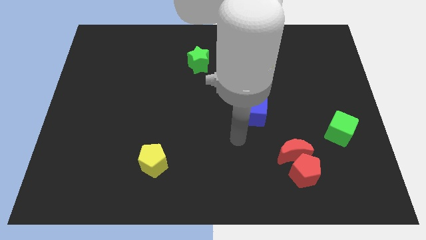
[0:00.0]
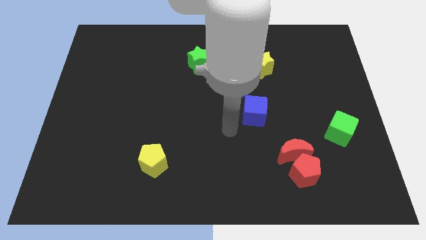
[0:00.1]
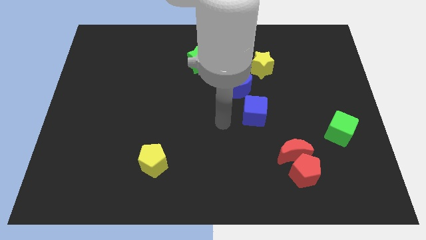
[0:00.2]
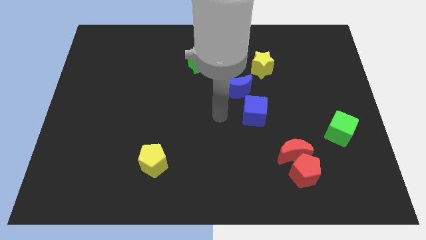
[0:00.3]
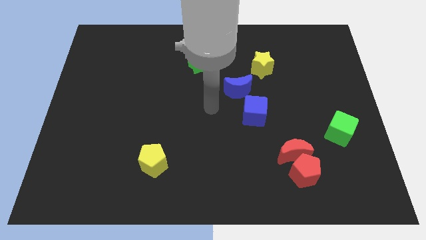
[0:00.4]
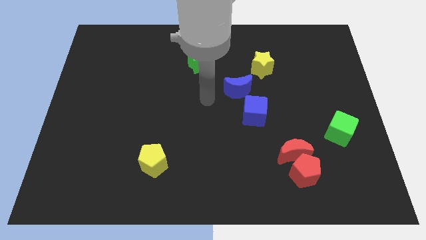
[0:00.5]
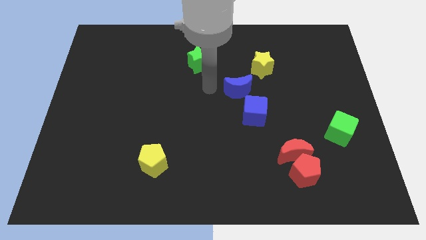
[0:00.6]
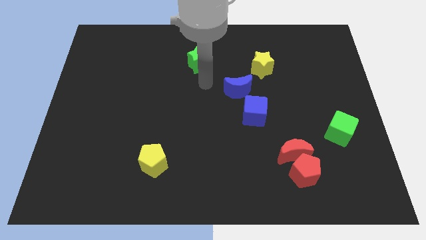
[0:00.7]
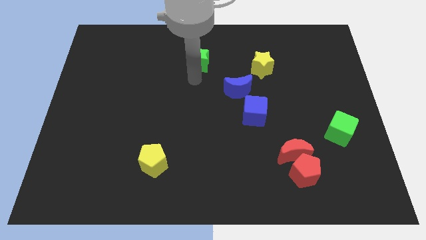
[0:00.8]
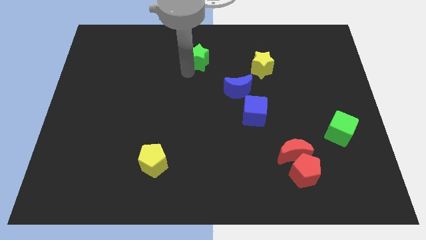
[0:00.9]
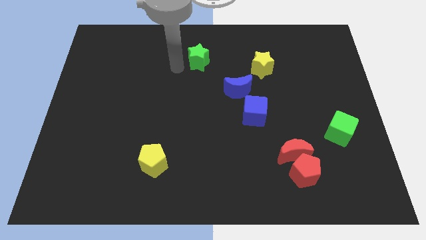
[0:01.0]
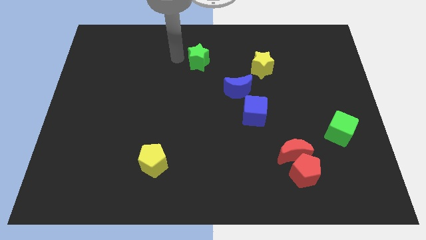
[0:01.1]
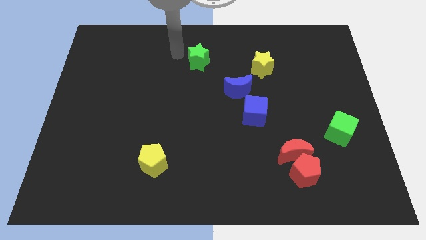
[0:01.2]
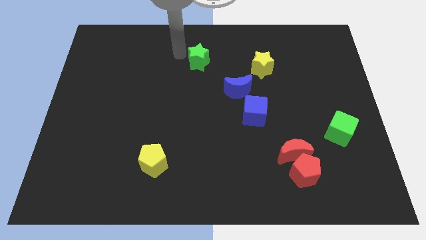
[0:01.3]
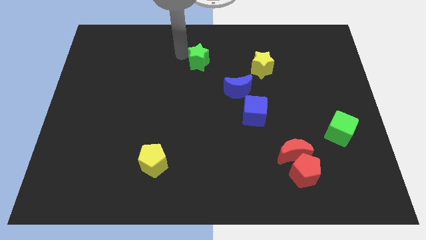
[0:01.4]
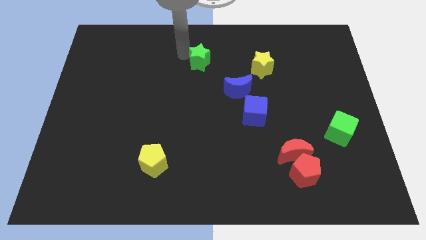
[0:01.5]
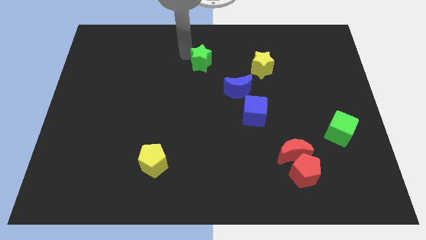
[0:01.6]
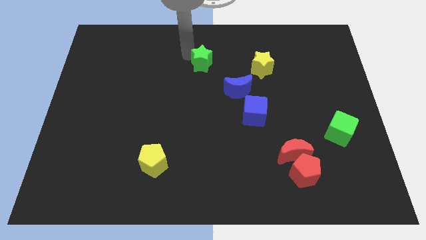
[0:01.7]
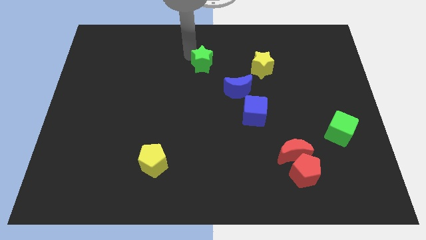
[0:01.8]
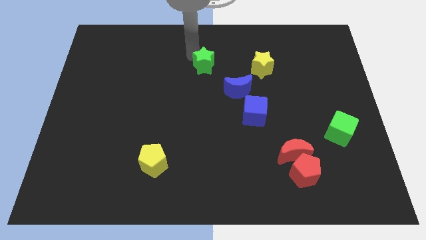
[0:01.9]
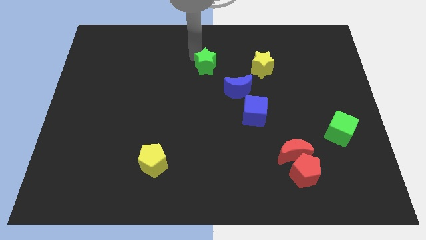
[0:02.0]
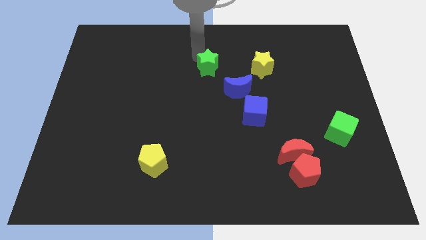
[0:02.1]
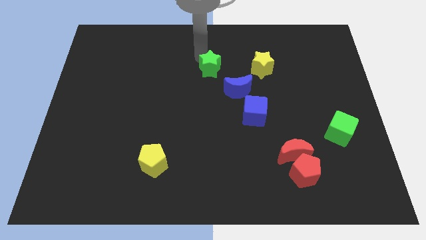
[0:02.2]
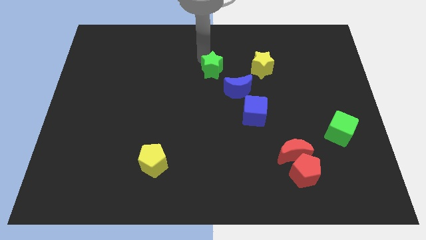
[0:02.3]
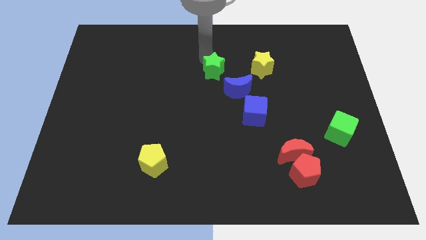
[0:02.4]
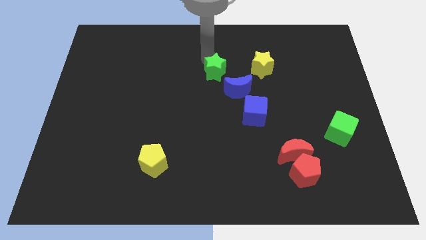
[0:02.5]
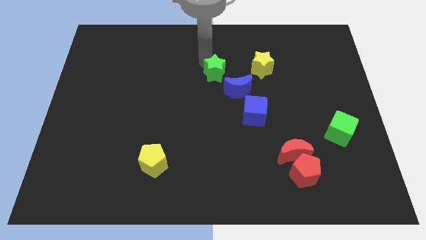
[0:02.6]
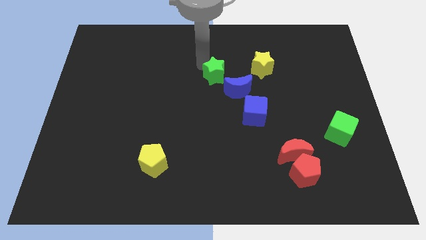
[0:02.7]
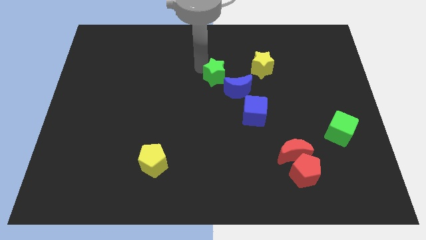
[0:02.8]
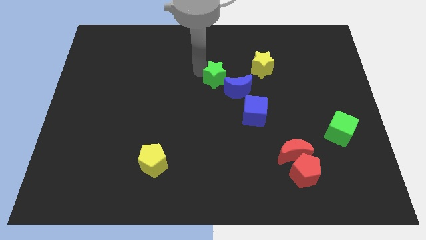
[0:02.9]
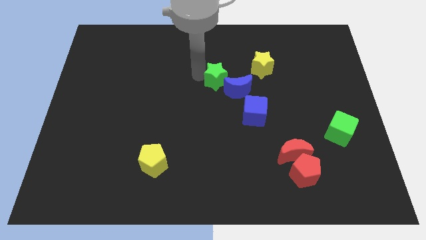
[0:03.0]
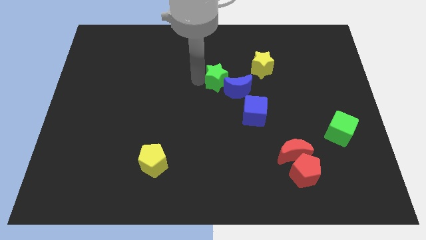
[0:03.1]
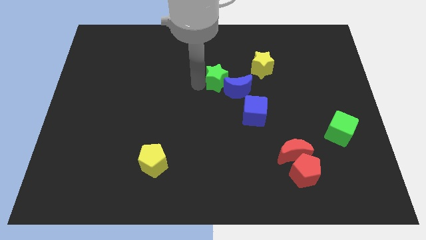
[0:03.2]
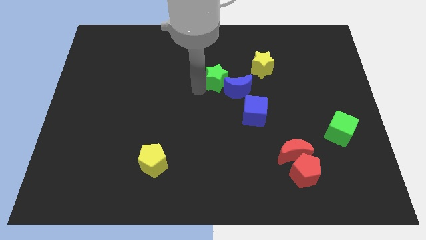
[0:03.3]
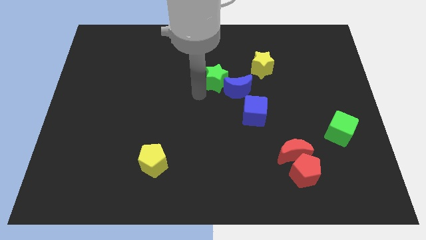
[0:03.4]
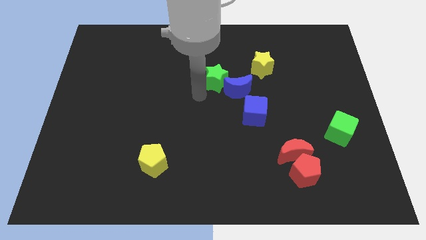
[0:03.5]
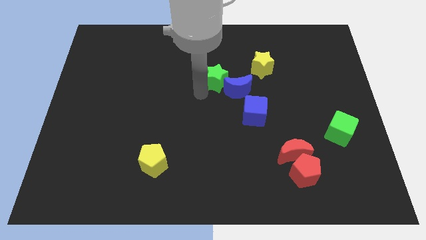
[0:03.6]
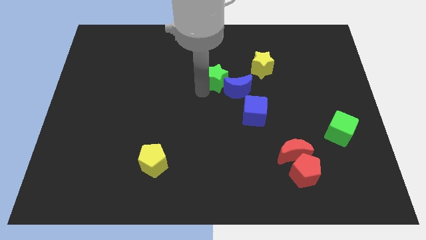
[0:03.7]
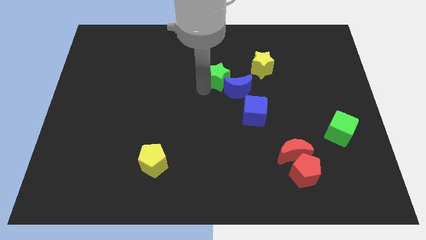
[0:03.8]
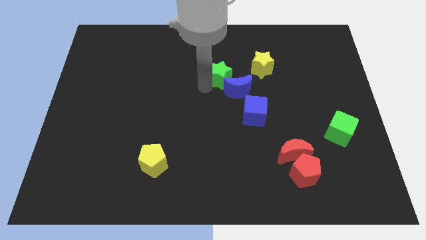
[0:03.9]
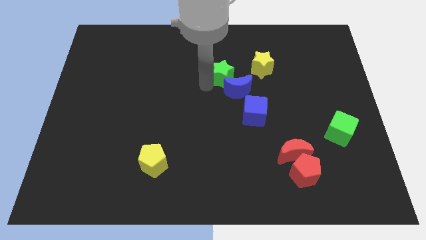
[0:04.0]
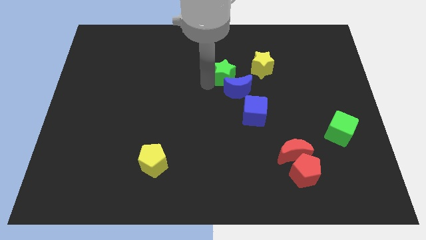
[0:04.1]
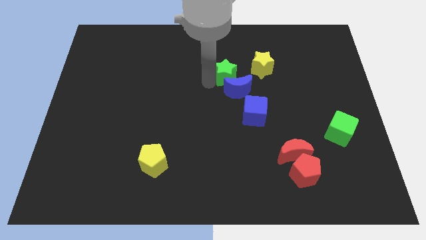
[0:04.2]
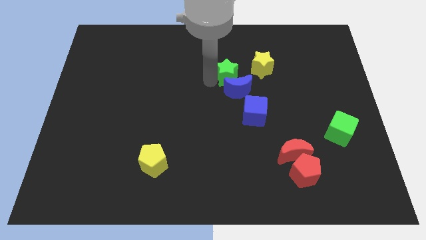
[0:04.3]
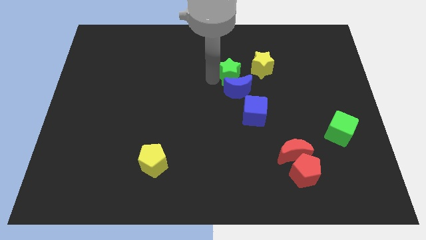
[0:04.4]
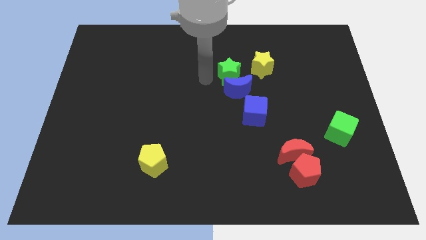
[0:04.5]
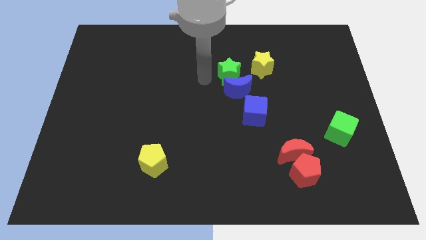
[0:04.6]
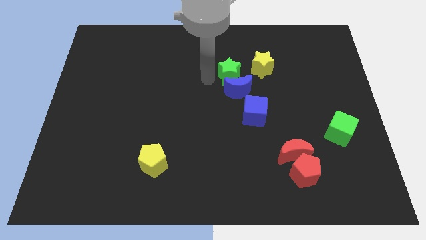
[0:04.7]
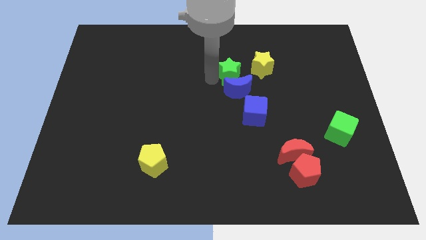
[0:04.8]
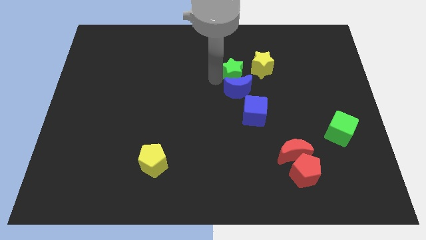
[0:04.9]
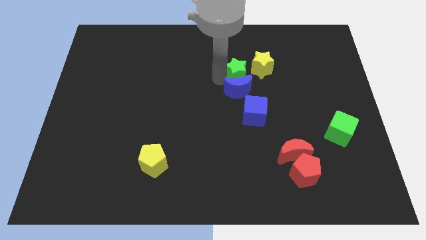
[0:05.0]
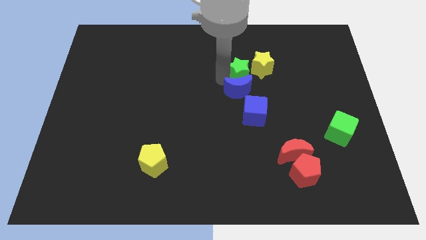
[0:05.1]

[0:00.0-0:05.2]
slide the green star to the yellow star

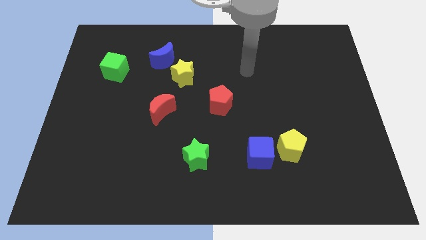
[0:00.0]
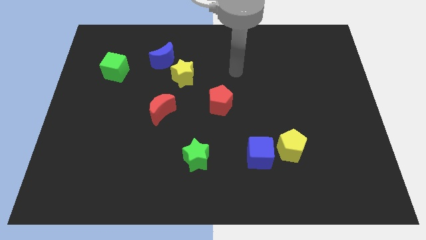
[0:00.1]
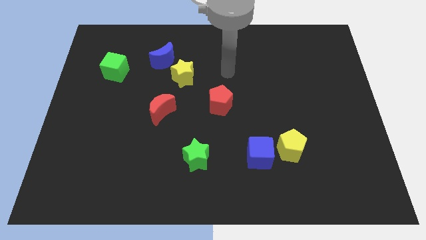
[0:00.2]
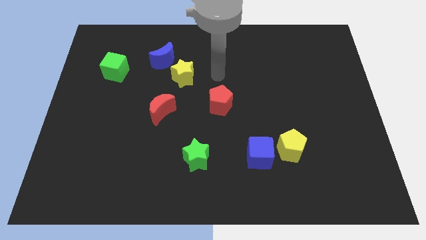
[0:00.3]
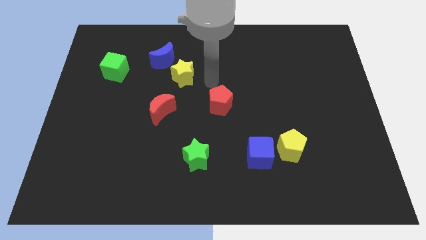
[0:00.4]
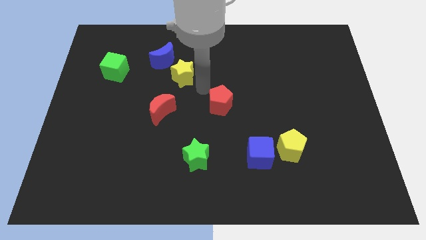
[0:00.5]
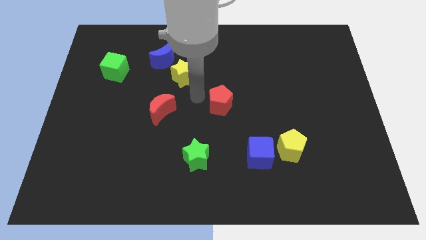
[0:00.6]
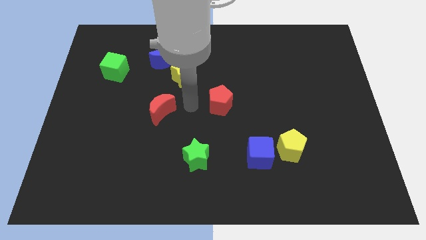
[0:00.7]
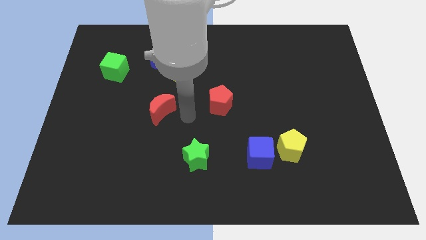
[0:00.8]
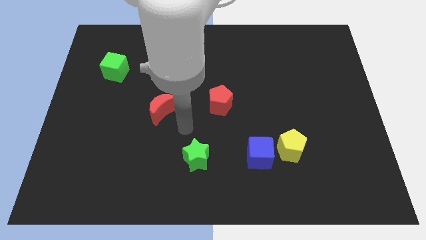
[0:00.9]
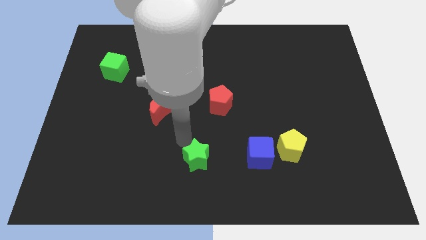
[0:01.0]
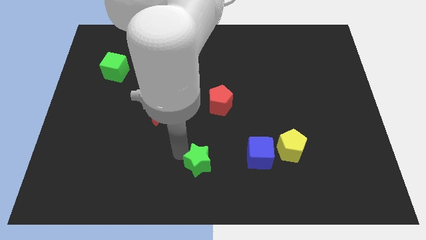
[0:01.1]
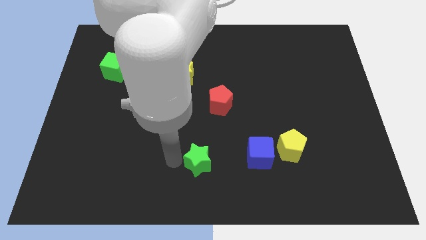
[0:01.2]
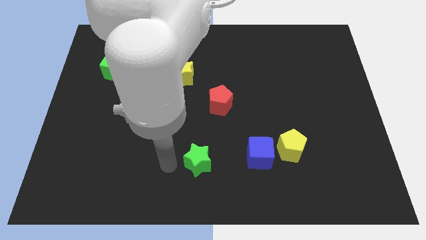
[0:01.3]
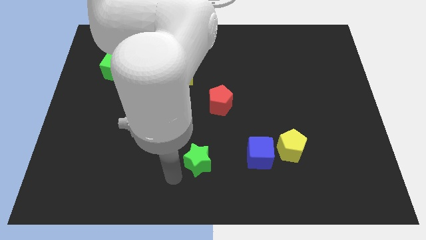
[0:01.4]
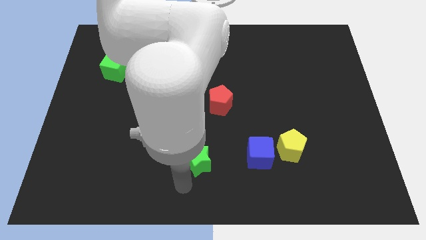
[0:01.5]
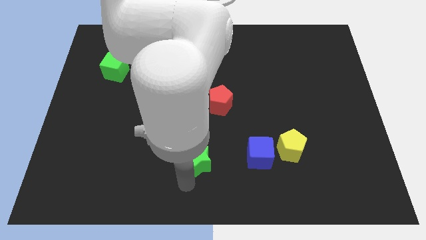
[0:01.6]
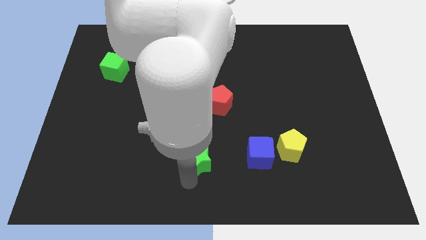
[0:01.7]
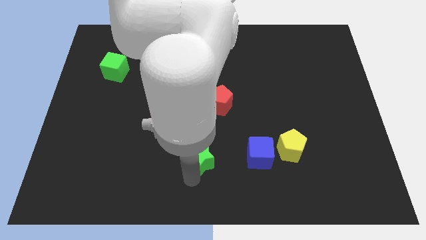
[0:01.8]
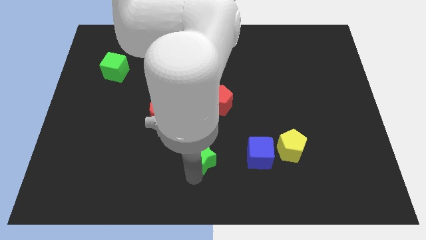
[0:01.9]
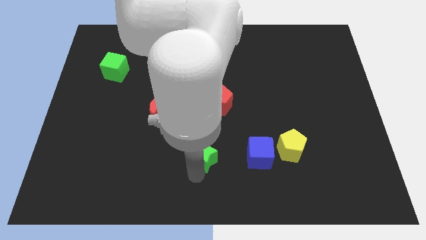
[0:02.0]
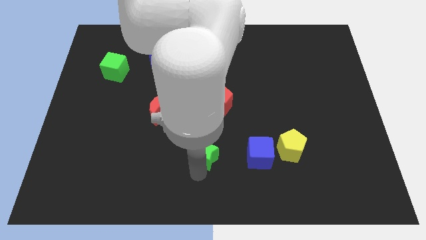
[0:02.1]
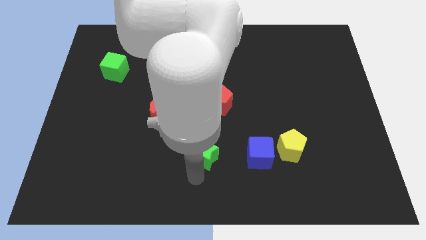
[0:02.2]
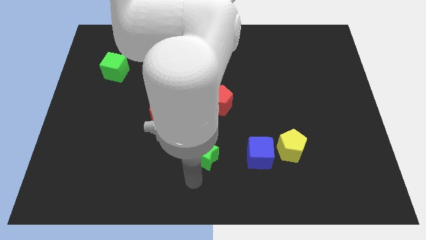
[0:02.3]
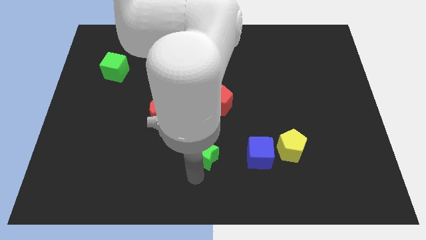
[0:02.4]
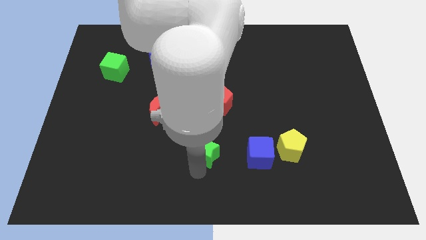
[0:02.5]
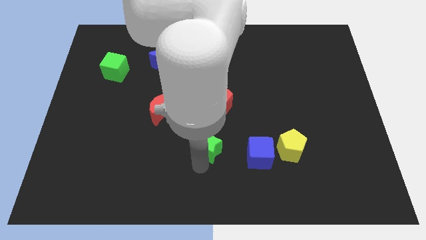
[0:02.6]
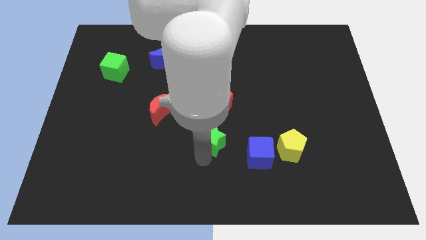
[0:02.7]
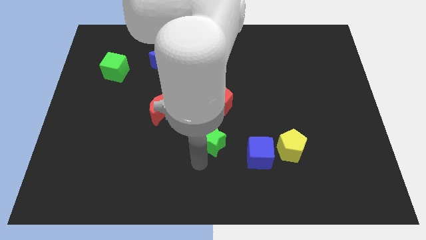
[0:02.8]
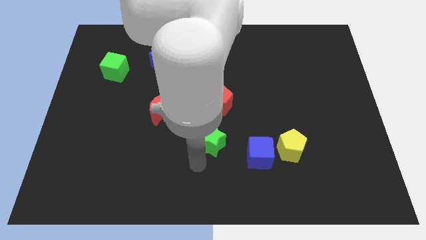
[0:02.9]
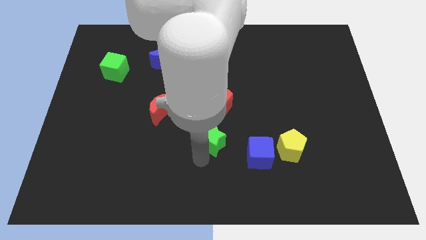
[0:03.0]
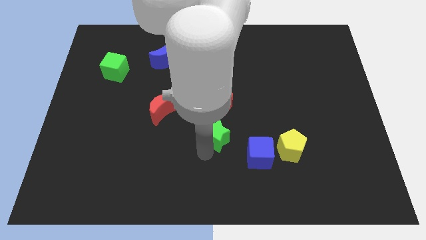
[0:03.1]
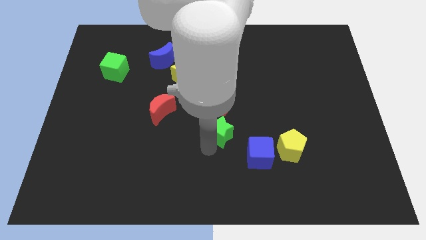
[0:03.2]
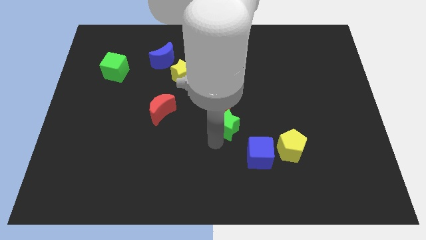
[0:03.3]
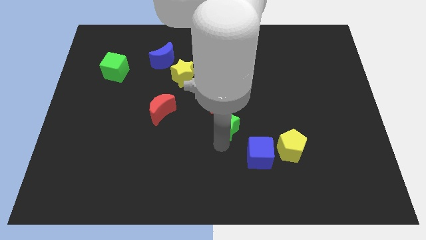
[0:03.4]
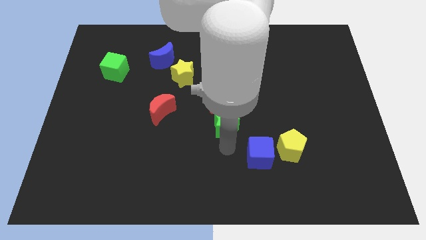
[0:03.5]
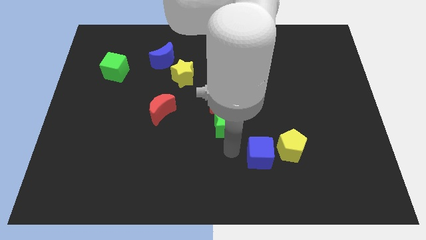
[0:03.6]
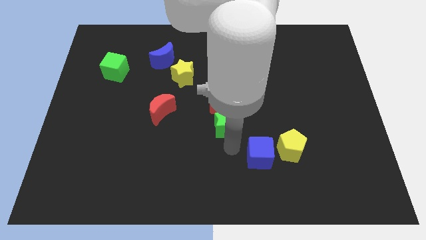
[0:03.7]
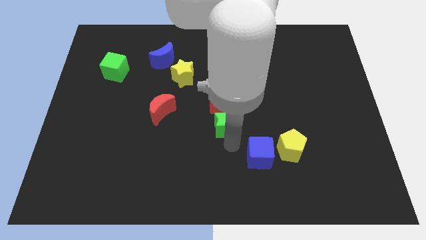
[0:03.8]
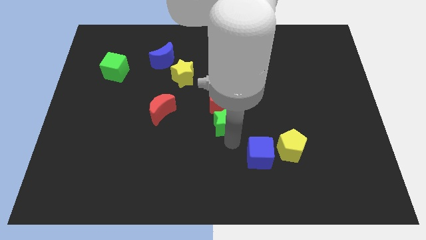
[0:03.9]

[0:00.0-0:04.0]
move the green star to the red pentagon
